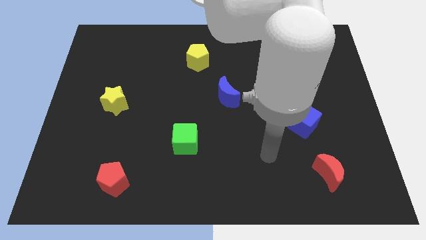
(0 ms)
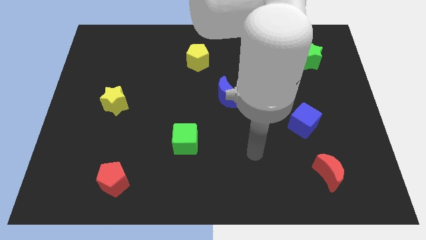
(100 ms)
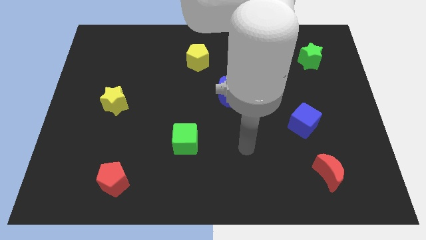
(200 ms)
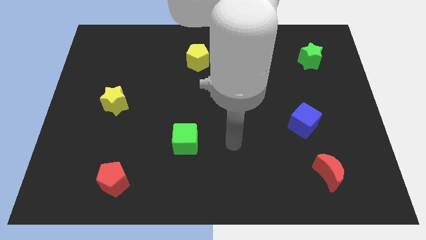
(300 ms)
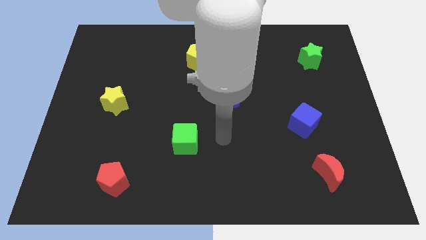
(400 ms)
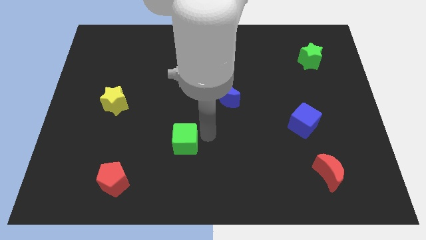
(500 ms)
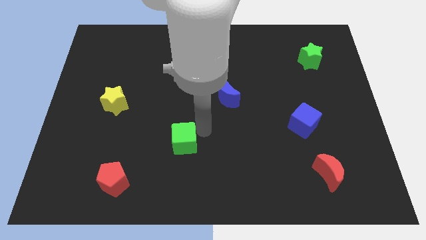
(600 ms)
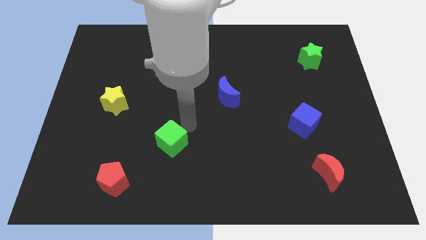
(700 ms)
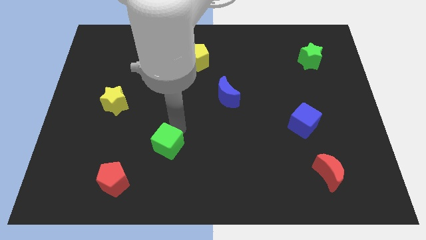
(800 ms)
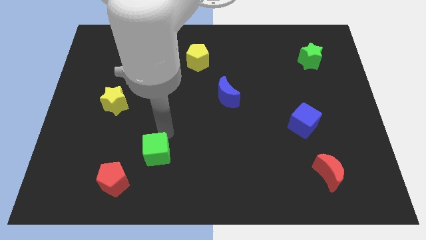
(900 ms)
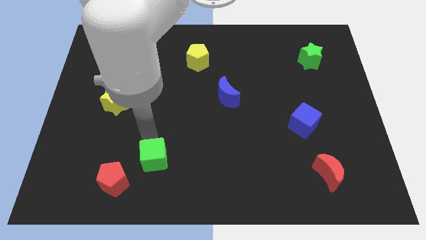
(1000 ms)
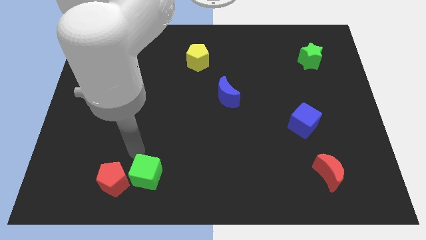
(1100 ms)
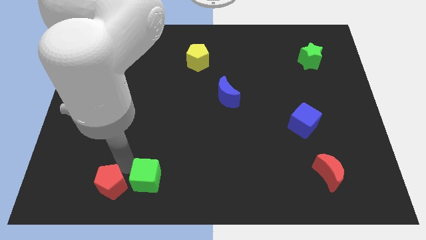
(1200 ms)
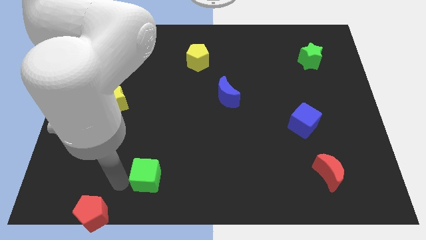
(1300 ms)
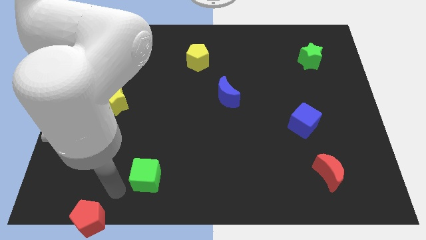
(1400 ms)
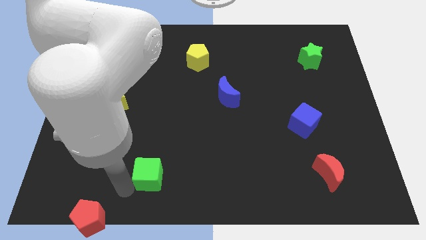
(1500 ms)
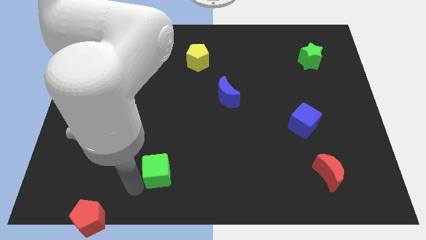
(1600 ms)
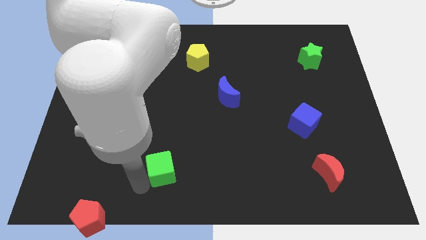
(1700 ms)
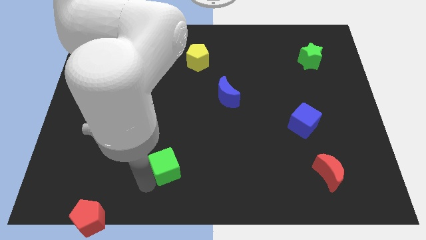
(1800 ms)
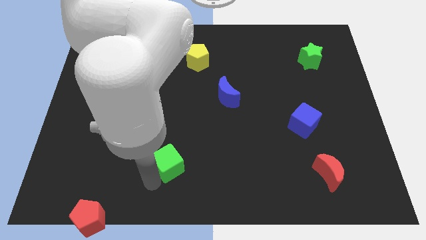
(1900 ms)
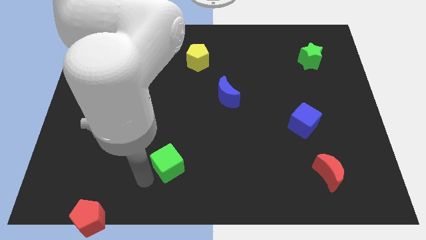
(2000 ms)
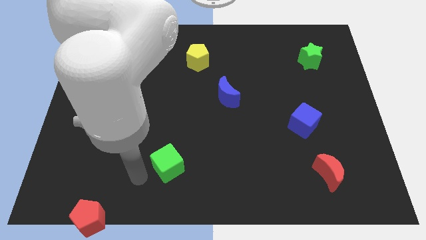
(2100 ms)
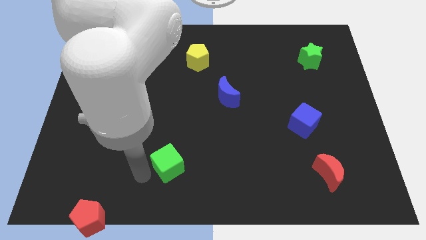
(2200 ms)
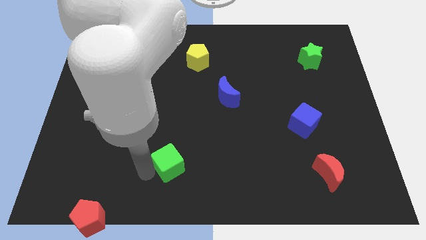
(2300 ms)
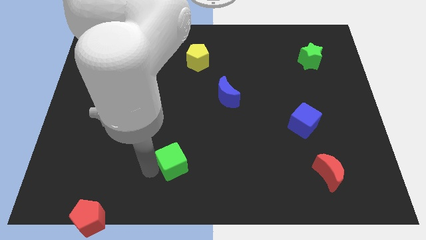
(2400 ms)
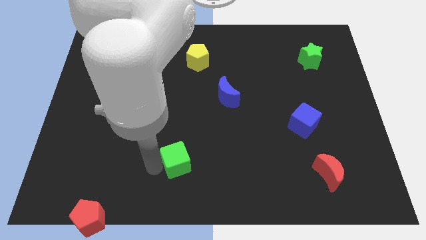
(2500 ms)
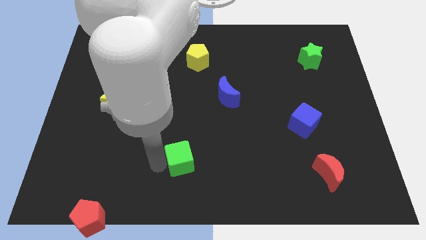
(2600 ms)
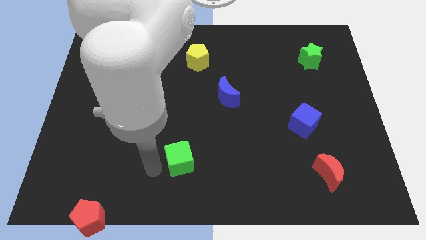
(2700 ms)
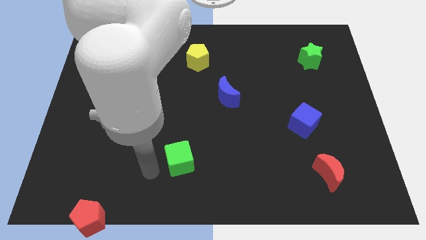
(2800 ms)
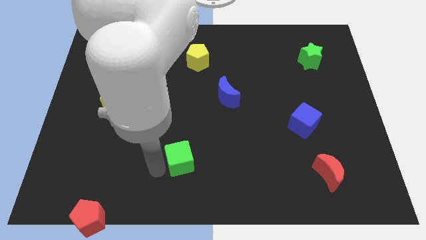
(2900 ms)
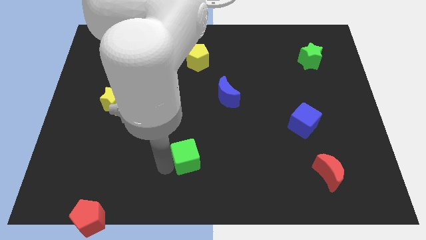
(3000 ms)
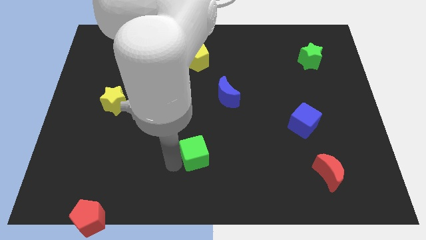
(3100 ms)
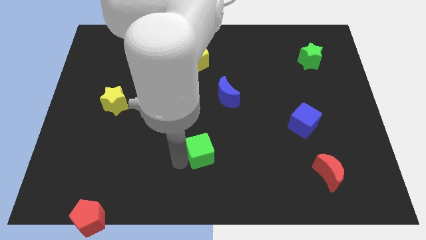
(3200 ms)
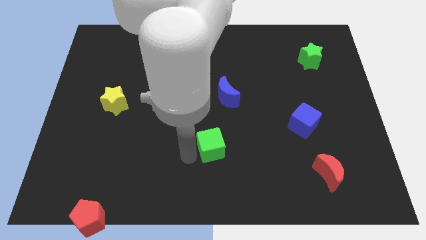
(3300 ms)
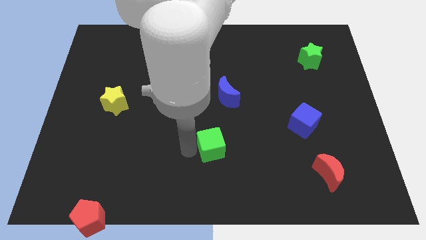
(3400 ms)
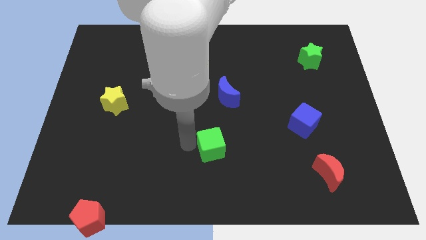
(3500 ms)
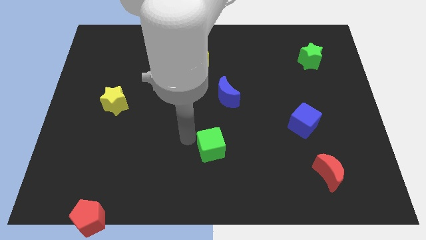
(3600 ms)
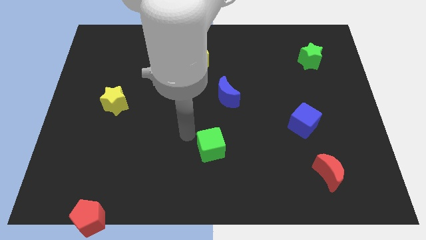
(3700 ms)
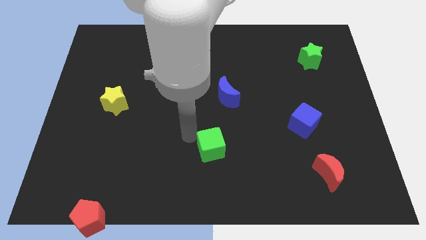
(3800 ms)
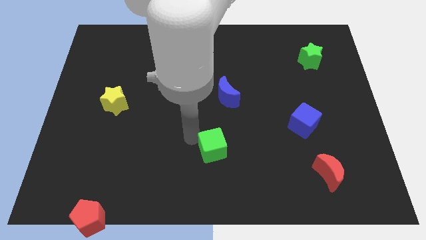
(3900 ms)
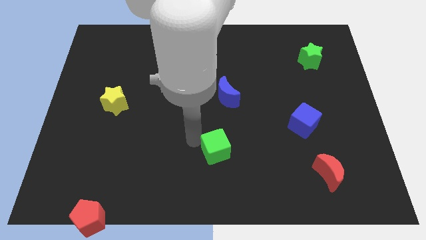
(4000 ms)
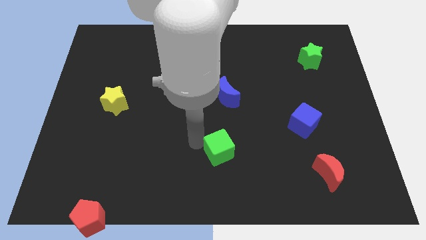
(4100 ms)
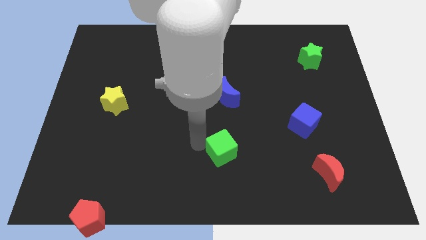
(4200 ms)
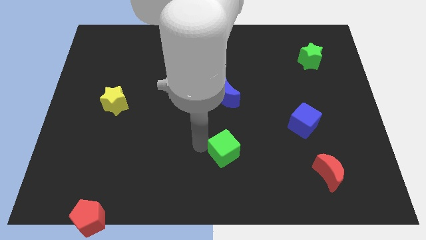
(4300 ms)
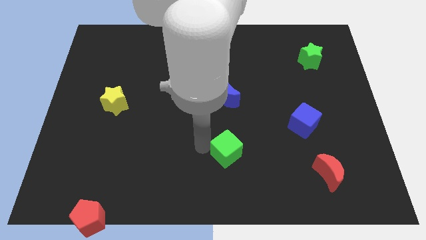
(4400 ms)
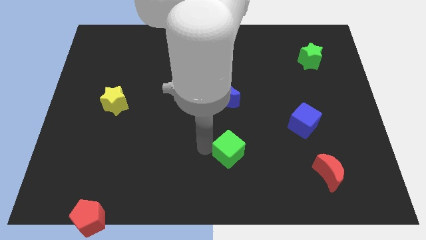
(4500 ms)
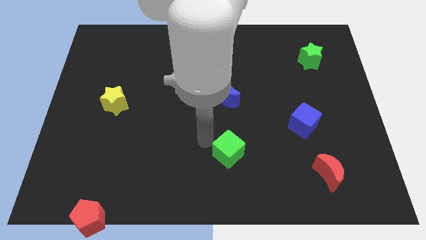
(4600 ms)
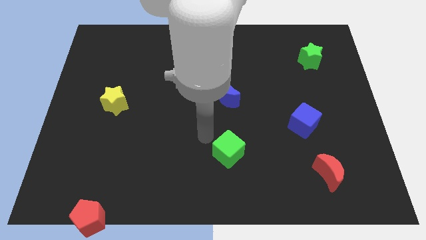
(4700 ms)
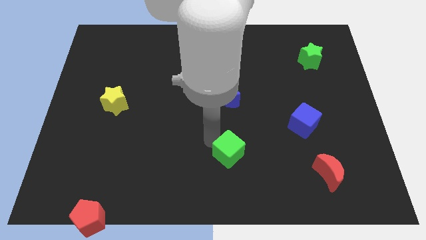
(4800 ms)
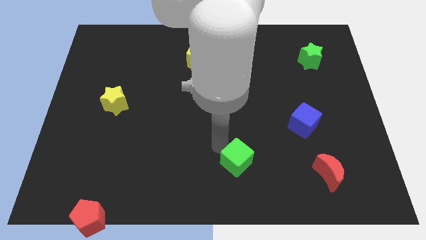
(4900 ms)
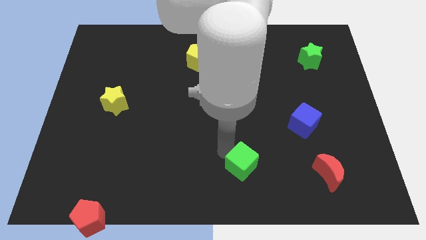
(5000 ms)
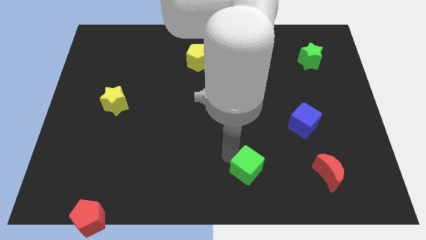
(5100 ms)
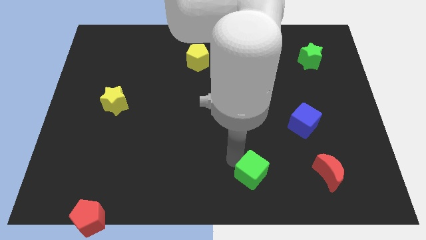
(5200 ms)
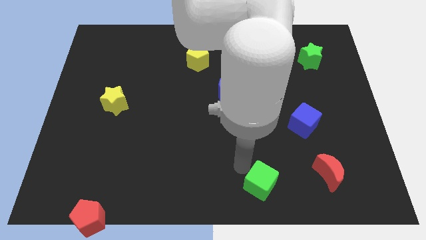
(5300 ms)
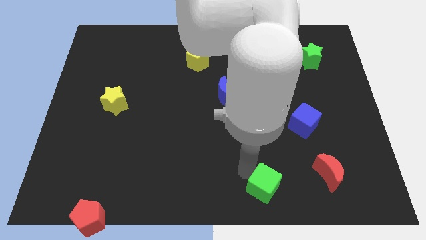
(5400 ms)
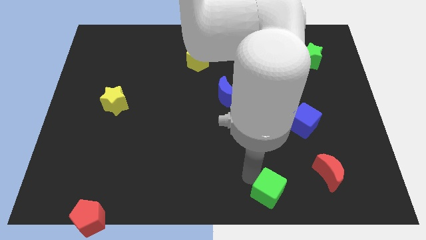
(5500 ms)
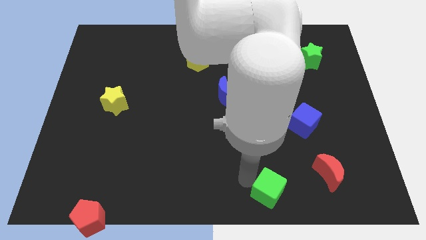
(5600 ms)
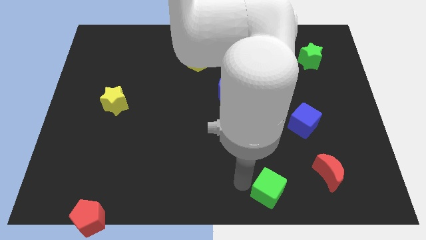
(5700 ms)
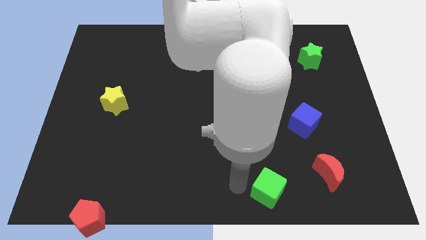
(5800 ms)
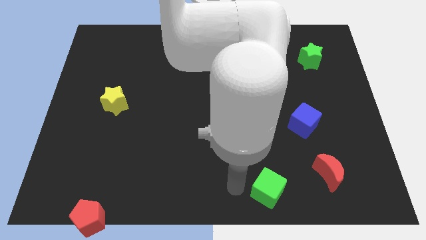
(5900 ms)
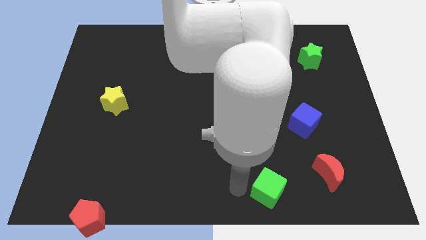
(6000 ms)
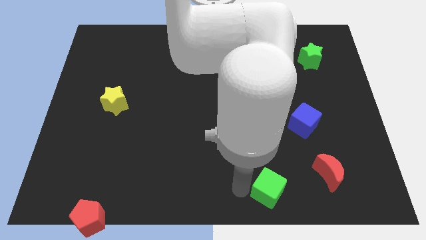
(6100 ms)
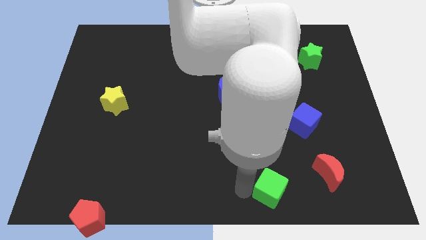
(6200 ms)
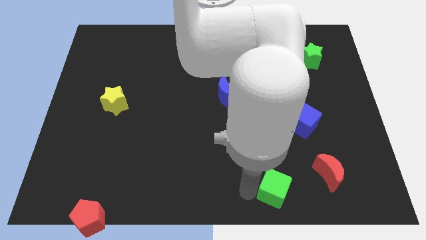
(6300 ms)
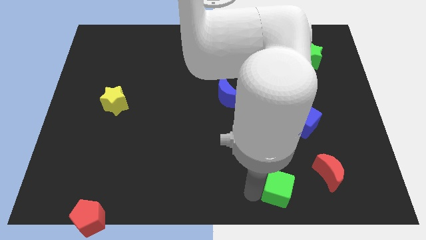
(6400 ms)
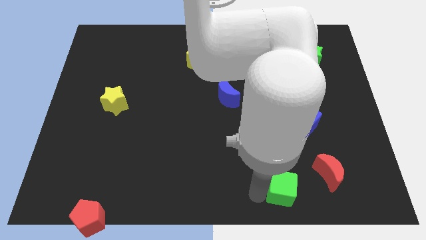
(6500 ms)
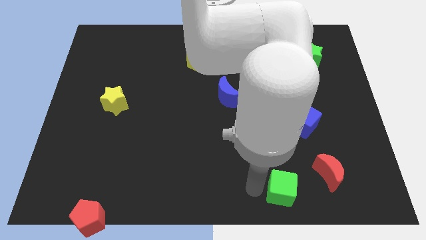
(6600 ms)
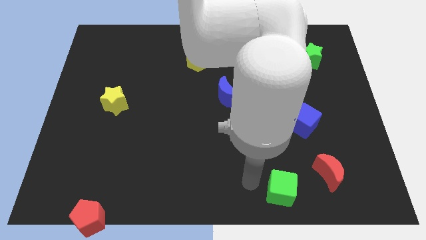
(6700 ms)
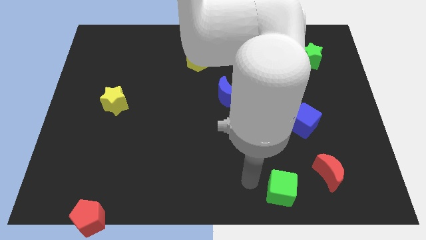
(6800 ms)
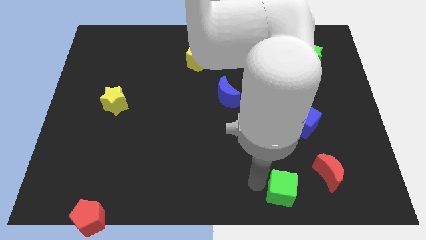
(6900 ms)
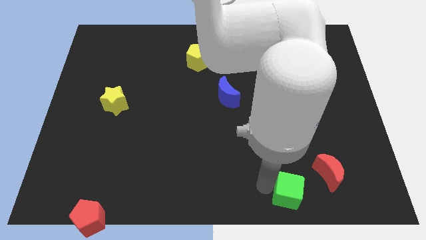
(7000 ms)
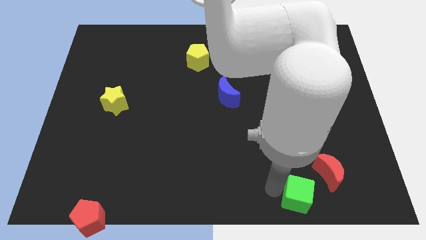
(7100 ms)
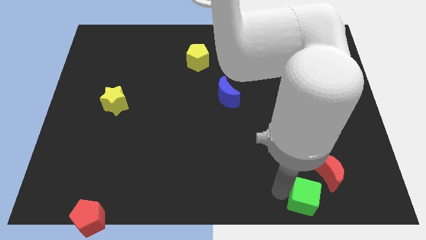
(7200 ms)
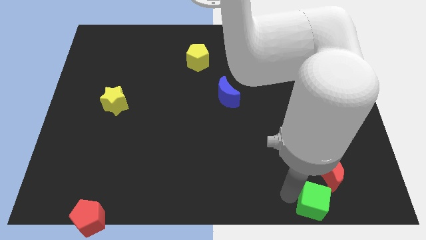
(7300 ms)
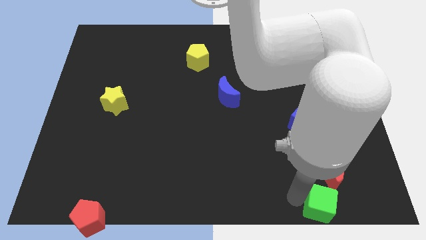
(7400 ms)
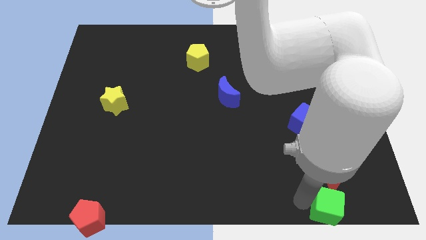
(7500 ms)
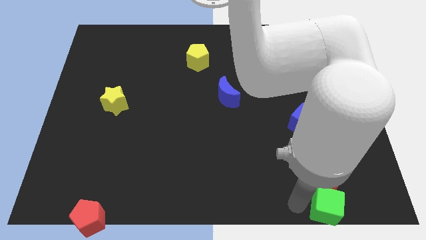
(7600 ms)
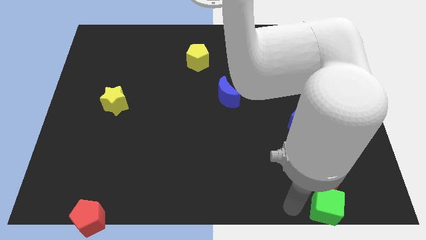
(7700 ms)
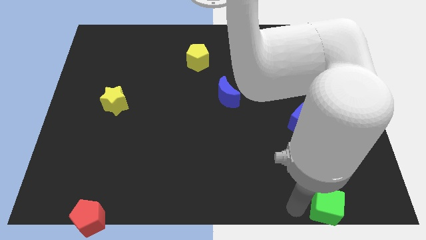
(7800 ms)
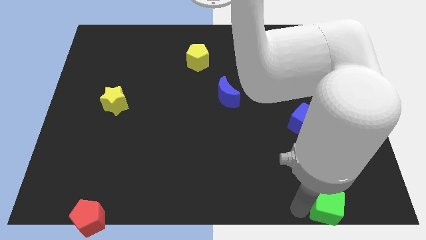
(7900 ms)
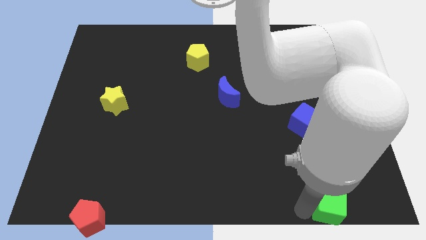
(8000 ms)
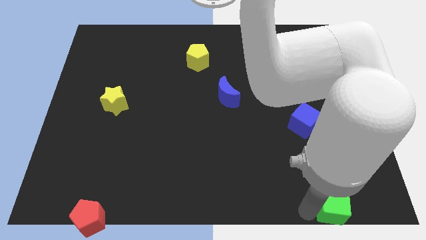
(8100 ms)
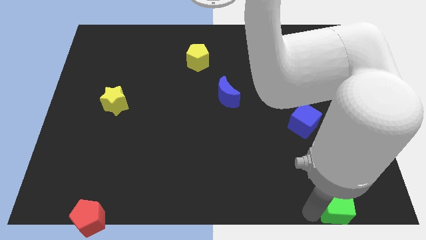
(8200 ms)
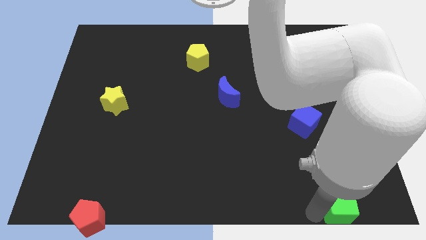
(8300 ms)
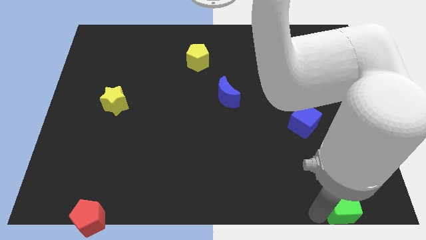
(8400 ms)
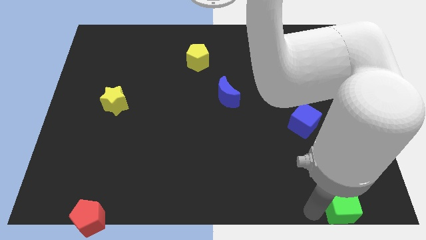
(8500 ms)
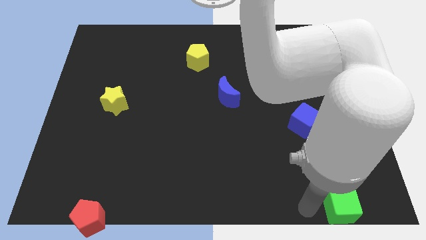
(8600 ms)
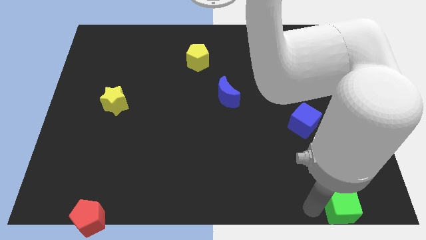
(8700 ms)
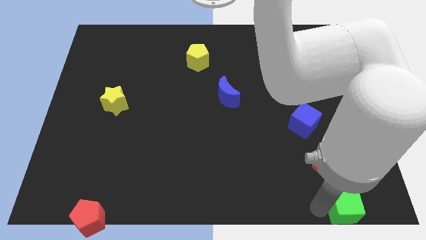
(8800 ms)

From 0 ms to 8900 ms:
put the green cube to the lower right corner
